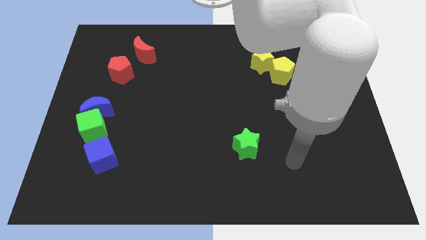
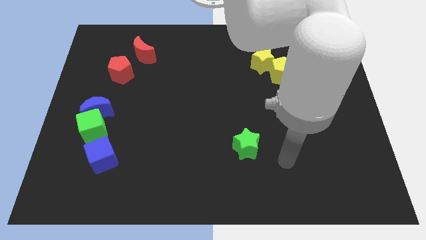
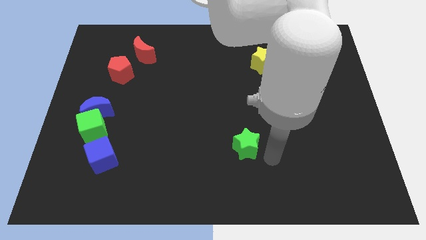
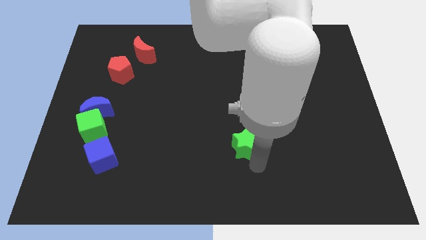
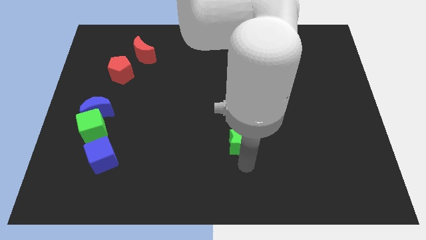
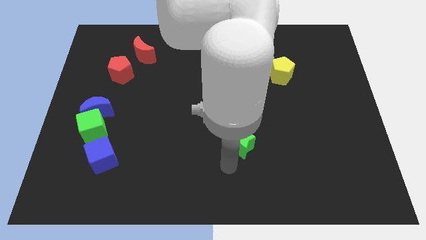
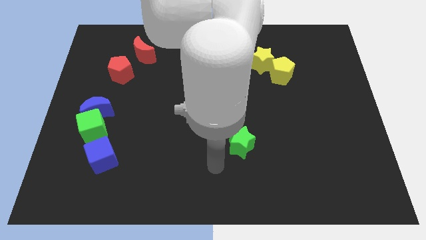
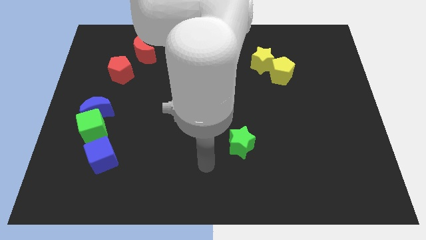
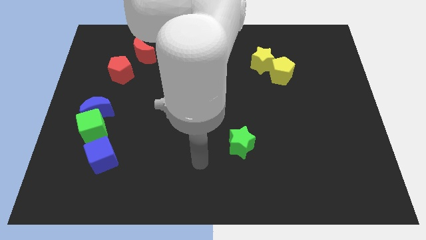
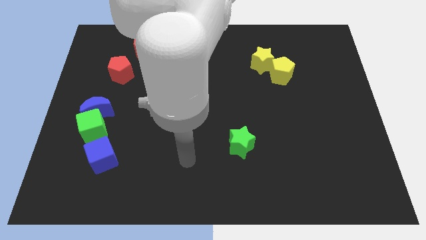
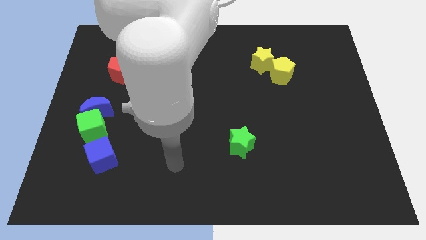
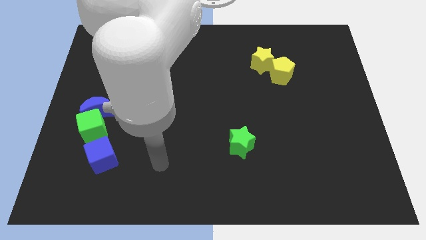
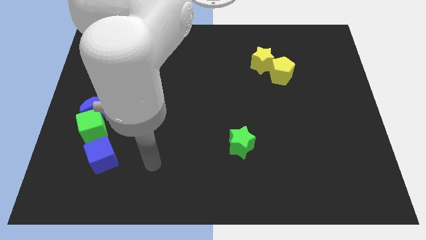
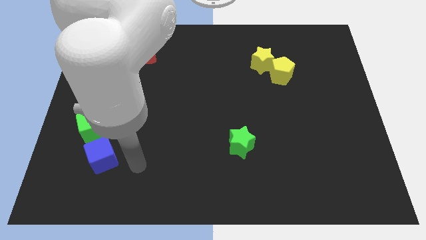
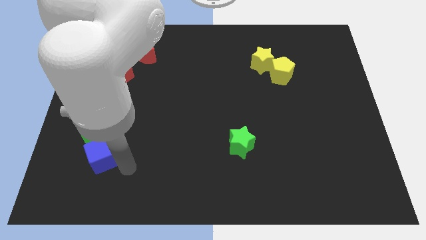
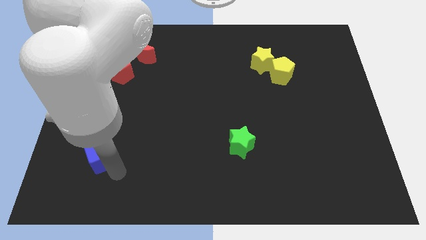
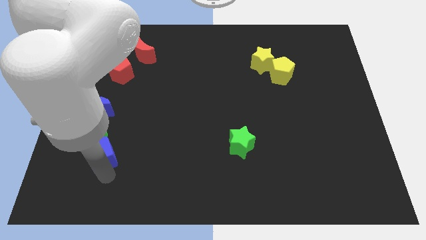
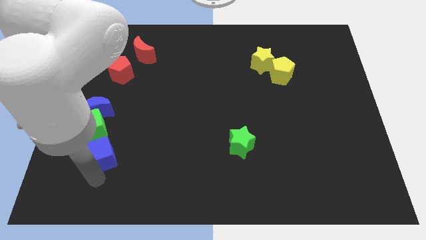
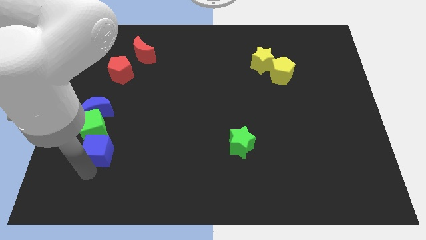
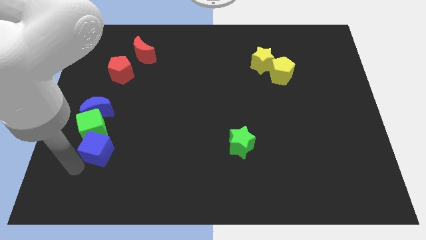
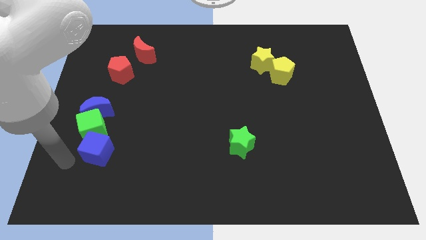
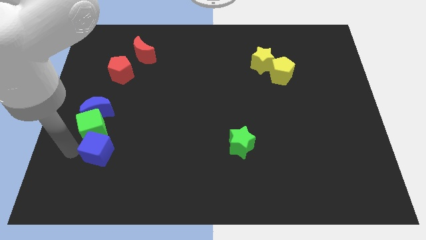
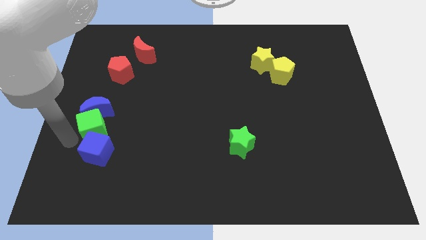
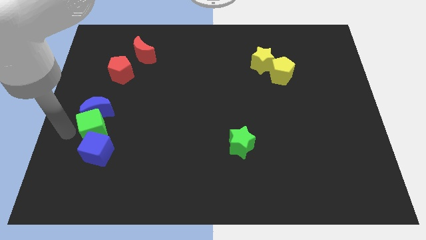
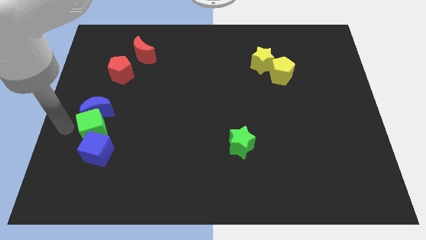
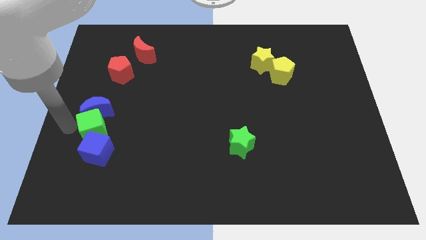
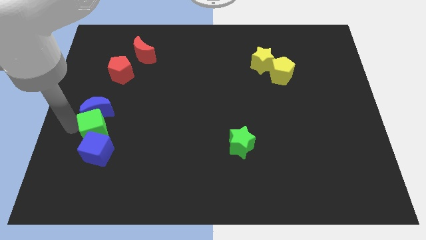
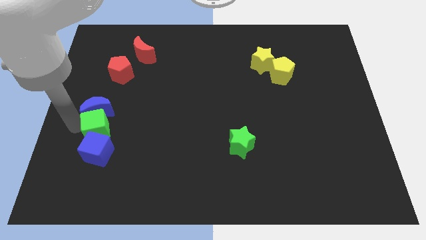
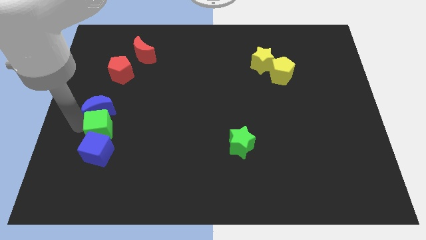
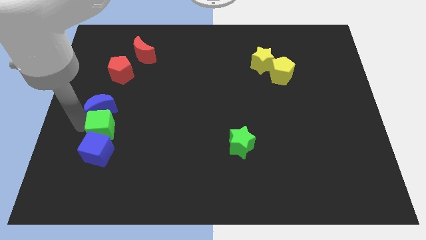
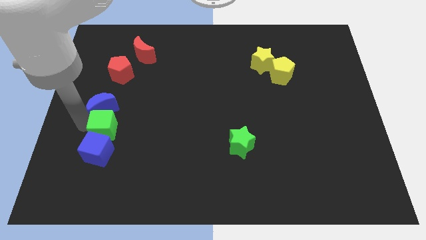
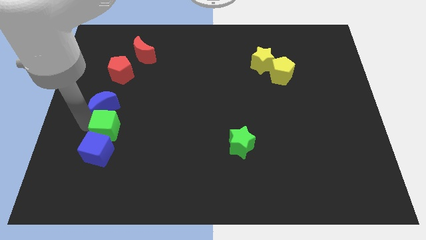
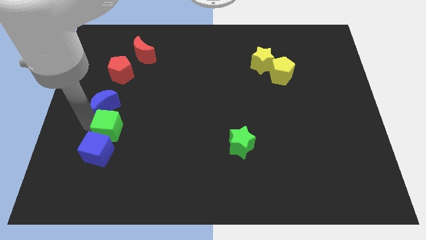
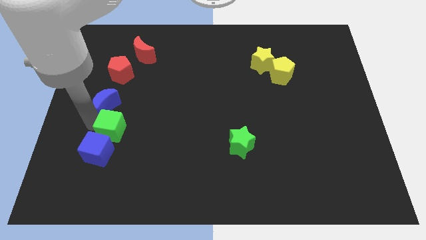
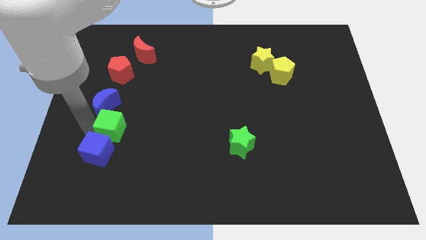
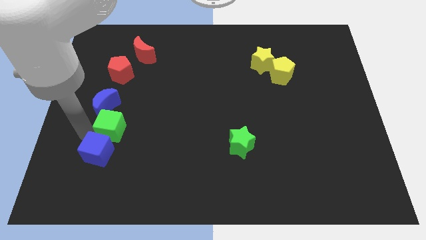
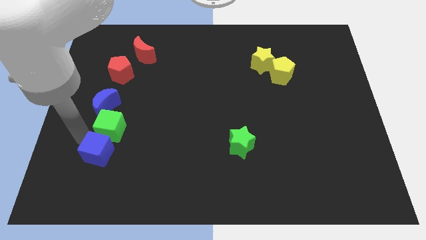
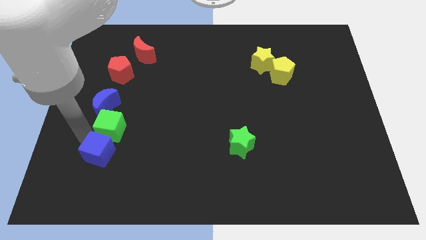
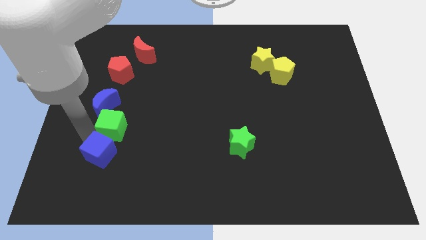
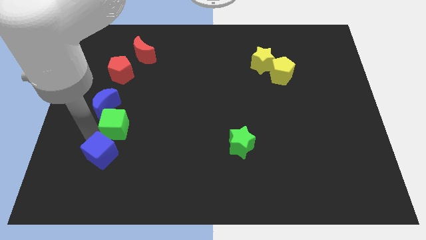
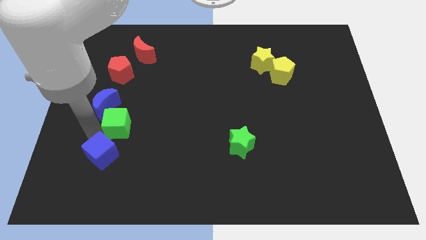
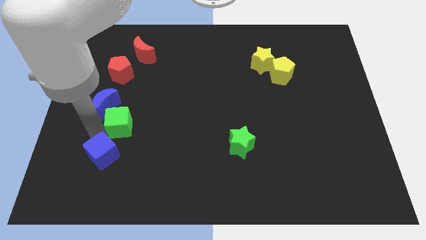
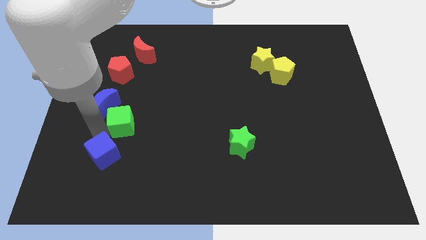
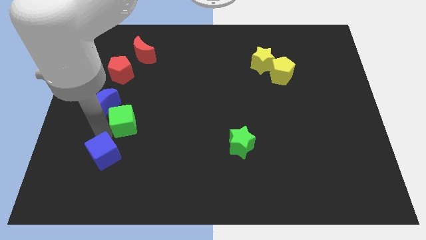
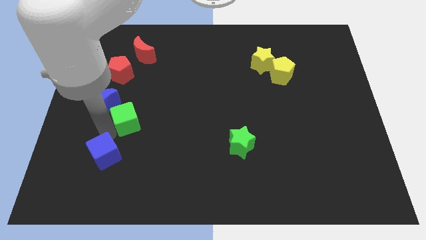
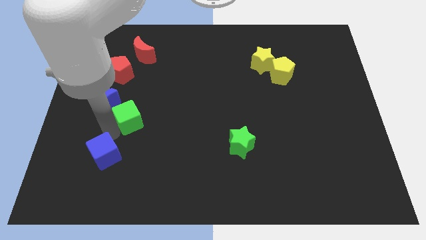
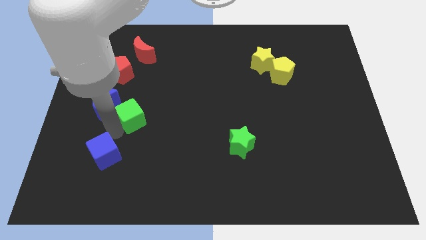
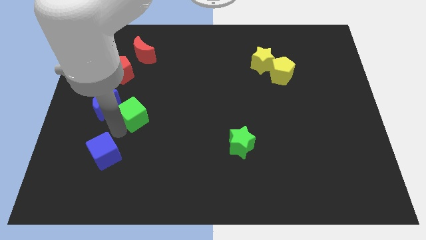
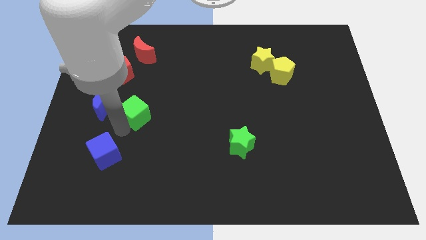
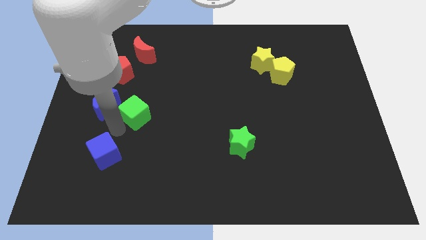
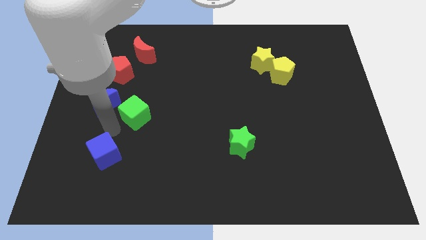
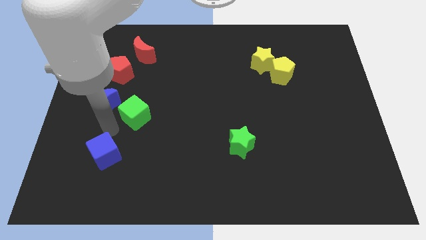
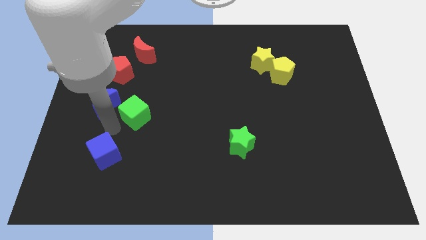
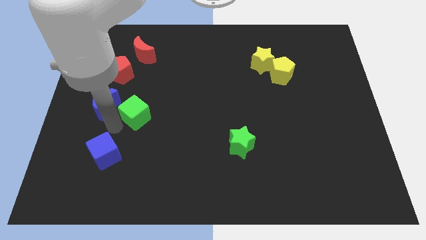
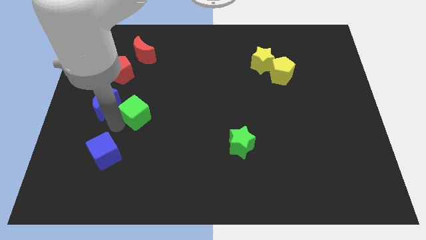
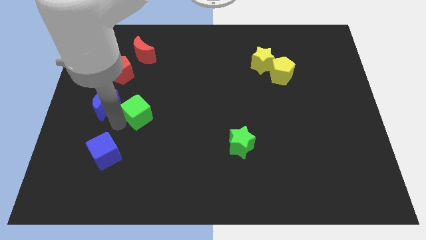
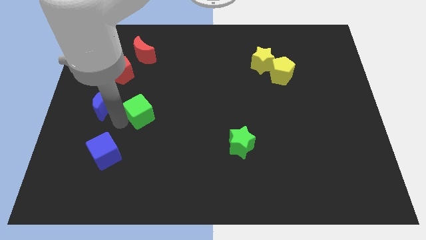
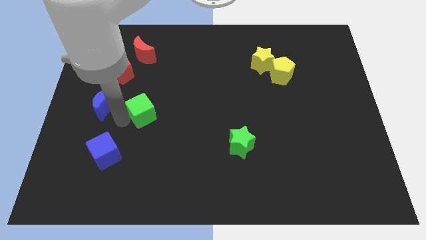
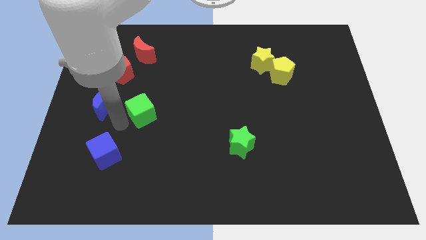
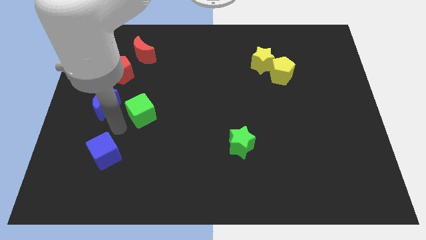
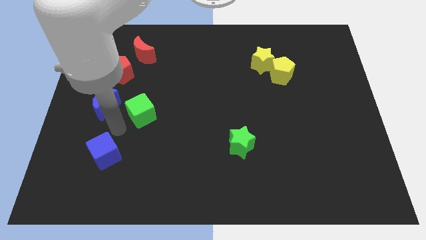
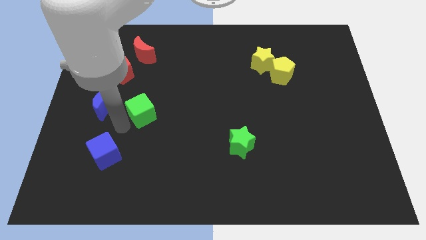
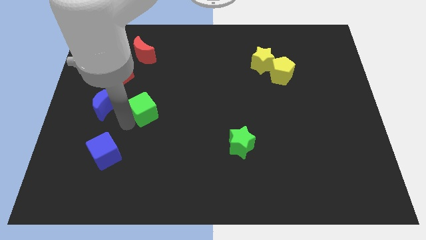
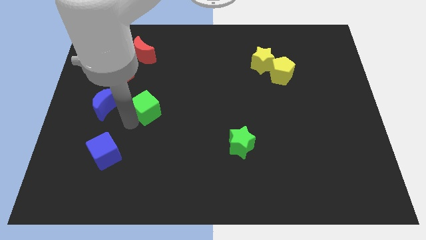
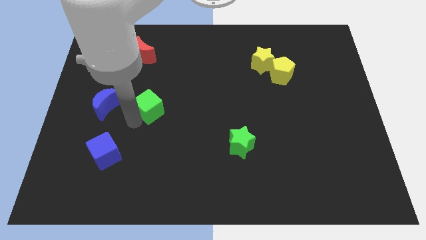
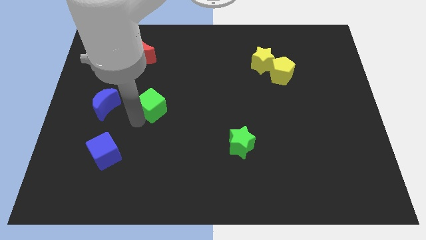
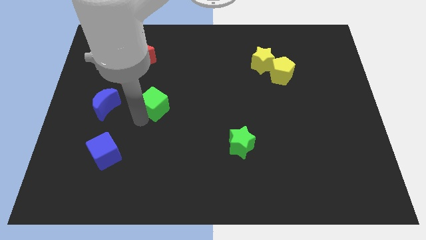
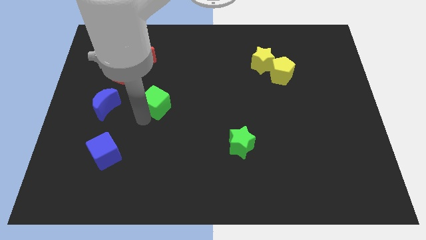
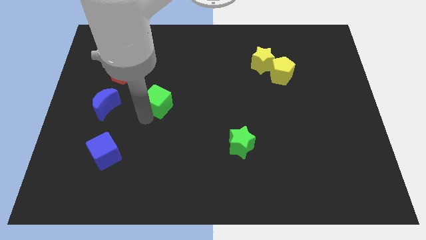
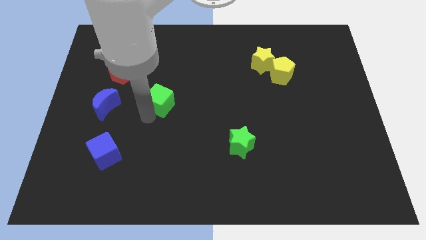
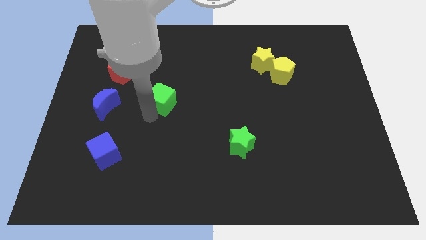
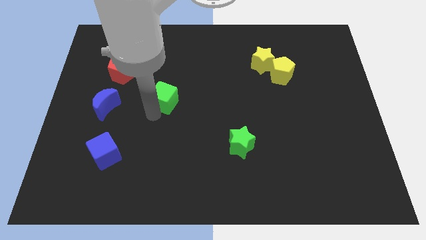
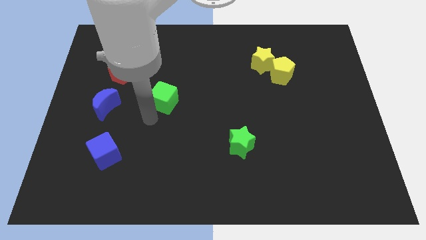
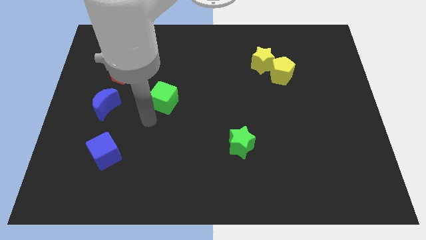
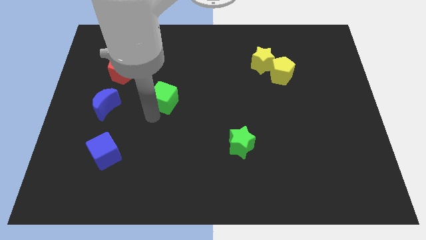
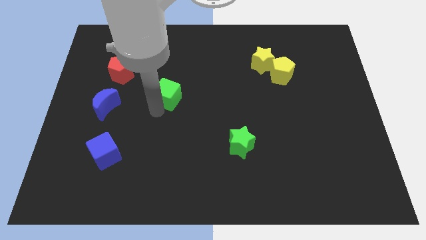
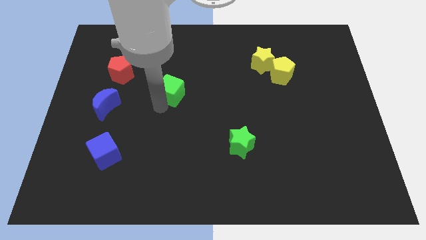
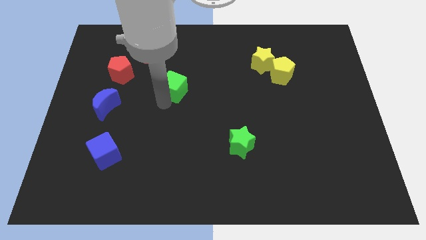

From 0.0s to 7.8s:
slide the green cube upwards and then to the right

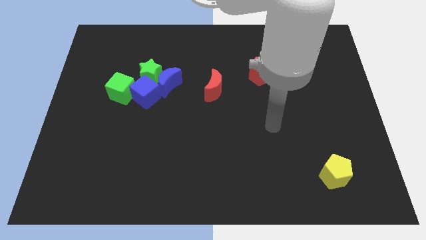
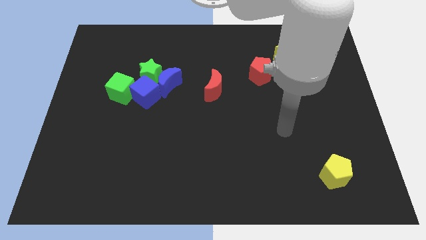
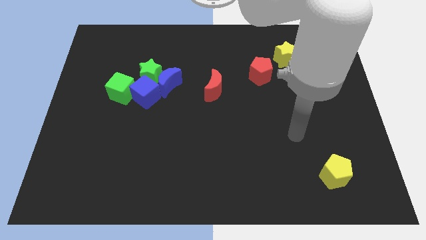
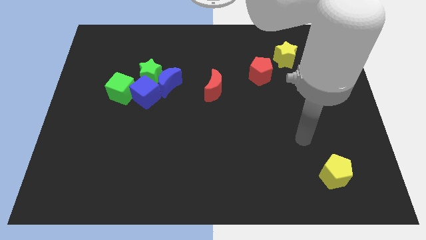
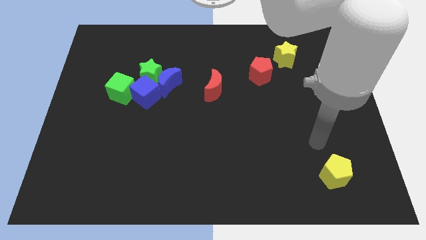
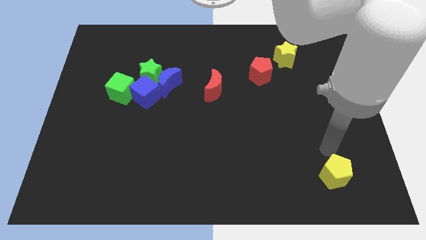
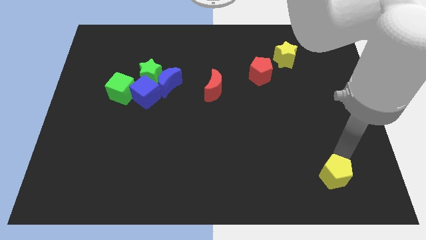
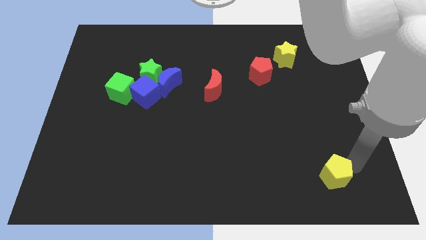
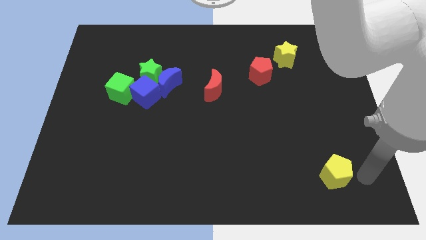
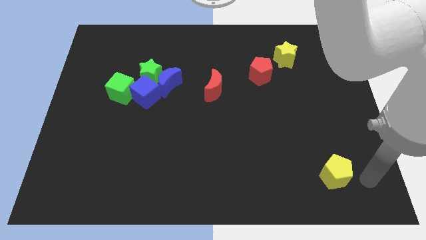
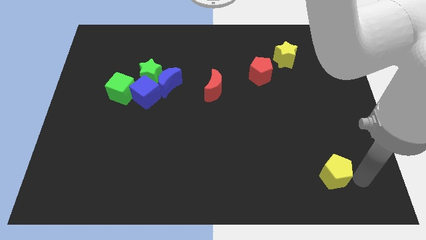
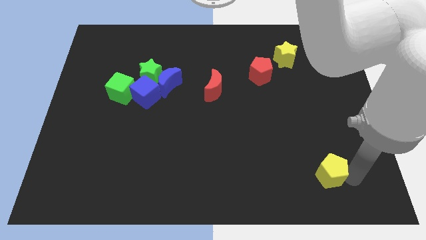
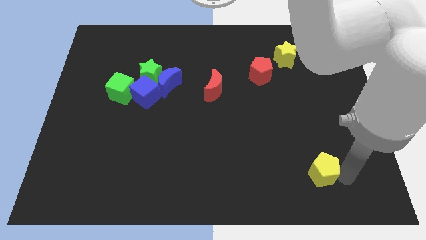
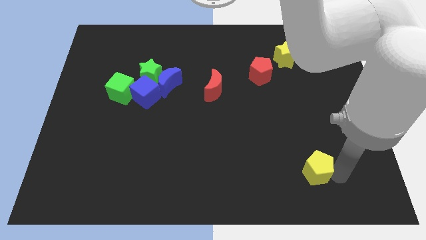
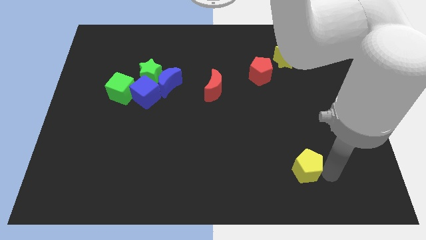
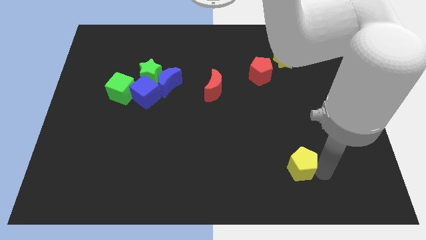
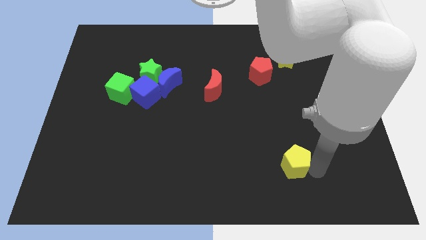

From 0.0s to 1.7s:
slightly push the yellow pentagon left
